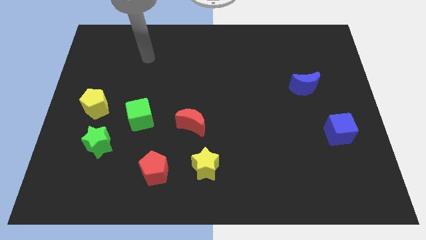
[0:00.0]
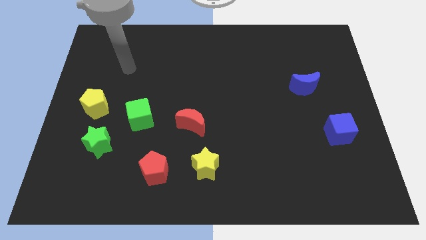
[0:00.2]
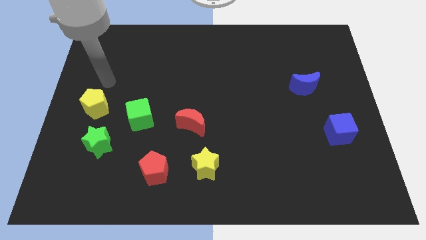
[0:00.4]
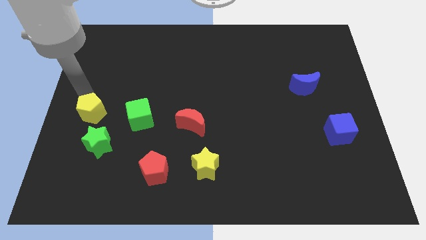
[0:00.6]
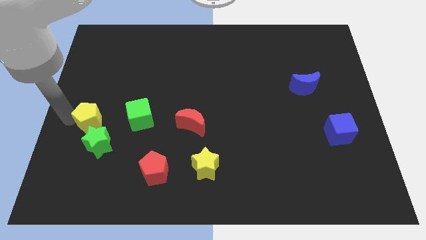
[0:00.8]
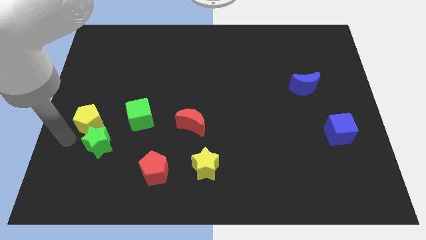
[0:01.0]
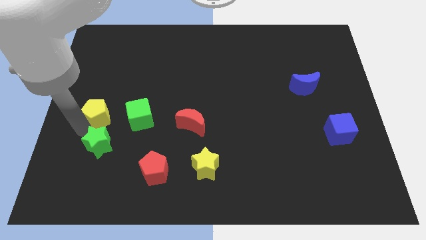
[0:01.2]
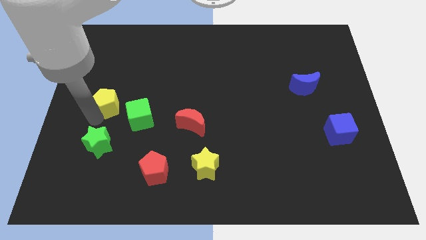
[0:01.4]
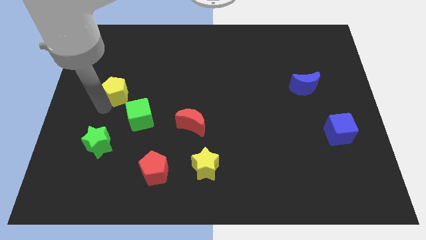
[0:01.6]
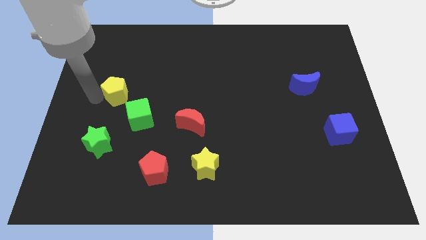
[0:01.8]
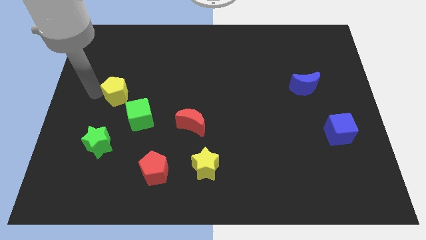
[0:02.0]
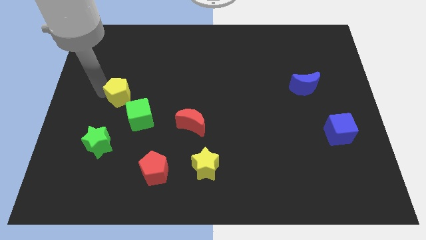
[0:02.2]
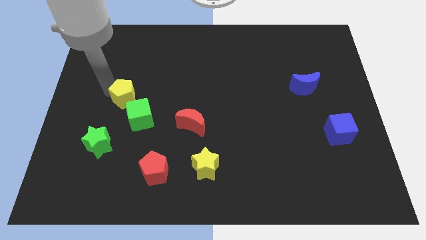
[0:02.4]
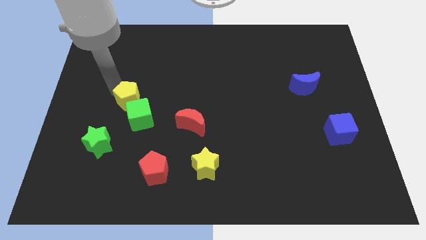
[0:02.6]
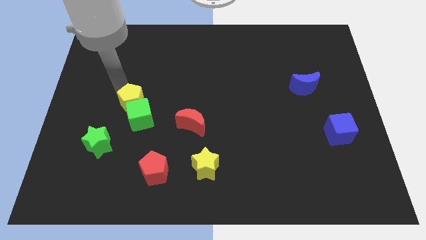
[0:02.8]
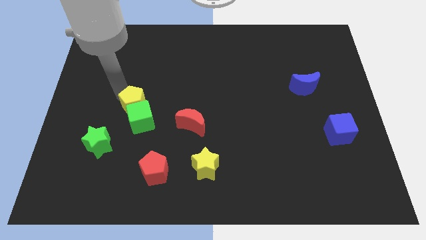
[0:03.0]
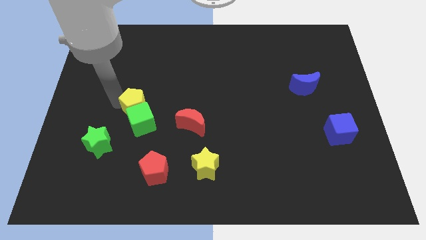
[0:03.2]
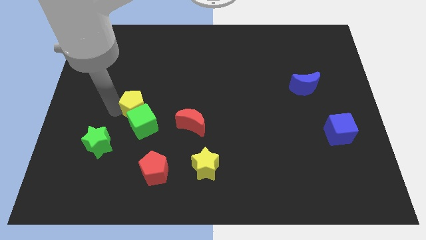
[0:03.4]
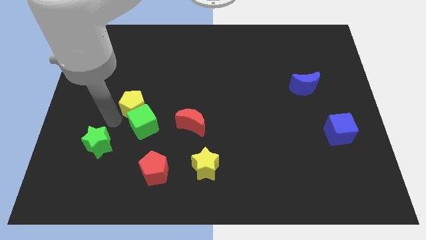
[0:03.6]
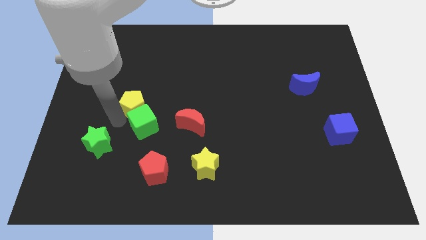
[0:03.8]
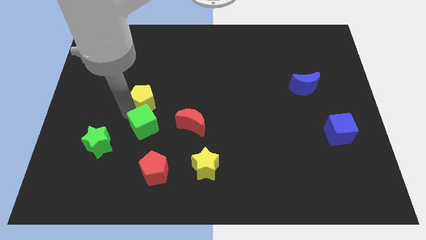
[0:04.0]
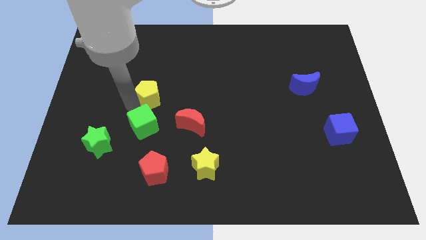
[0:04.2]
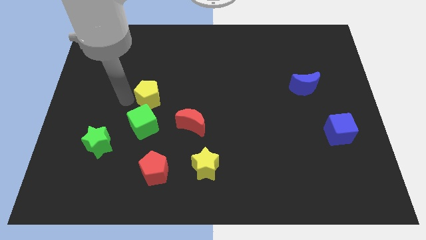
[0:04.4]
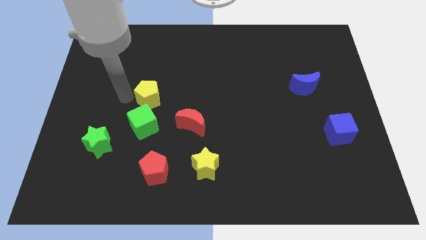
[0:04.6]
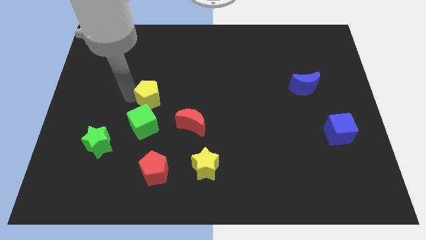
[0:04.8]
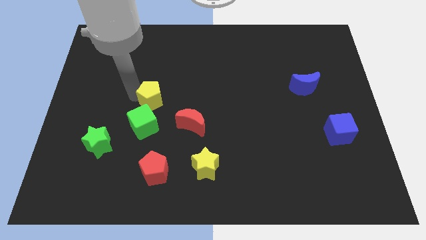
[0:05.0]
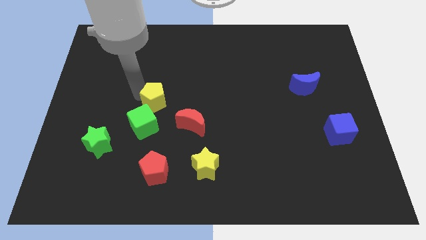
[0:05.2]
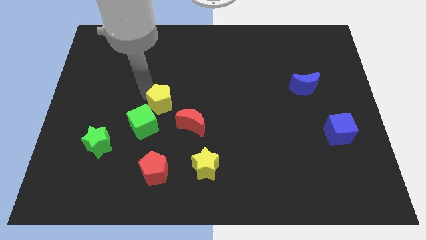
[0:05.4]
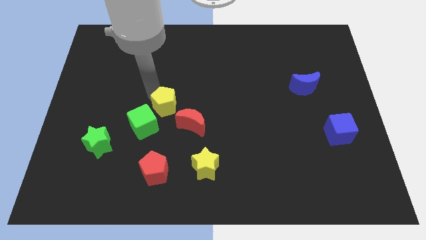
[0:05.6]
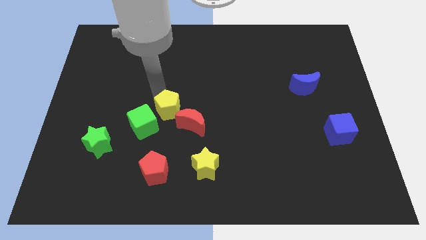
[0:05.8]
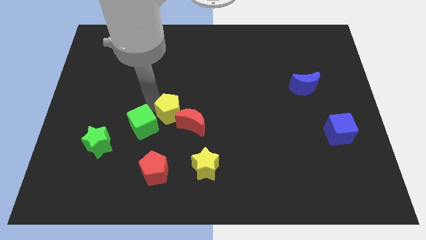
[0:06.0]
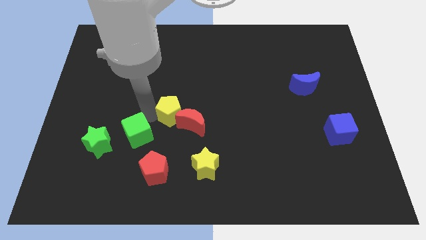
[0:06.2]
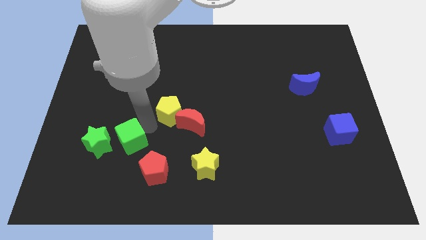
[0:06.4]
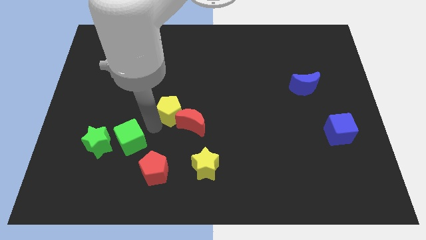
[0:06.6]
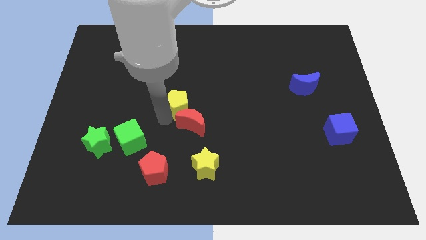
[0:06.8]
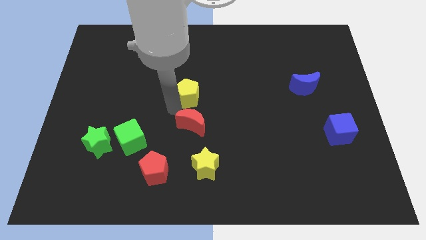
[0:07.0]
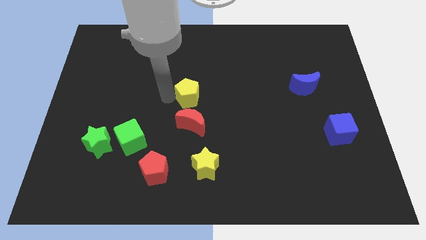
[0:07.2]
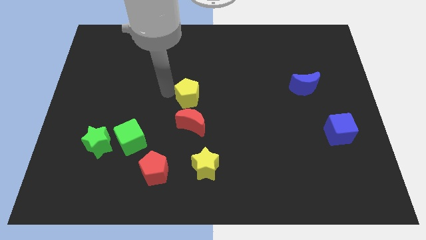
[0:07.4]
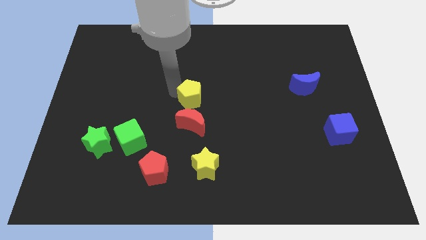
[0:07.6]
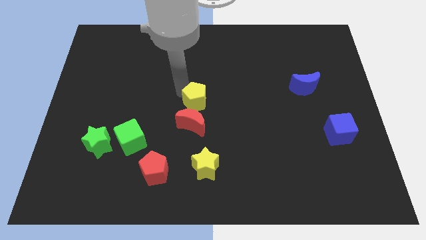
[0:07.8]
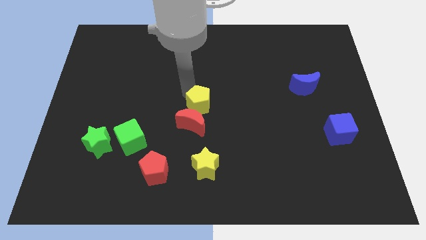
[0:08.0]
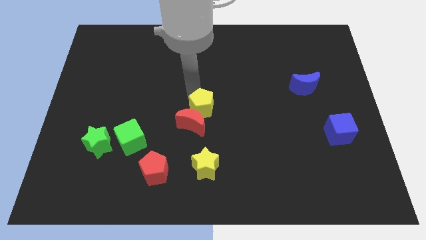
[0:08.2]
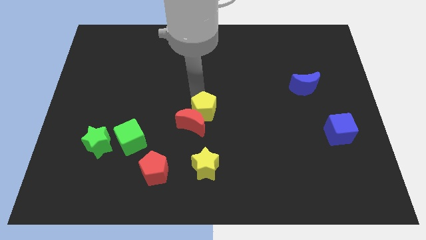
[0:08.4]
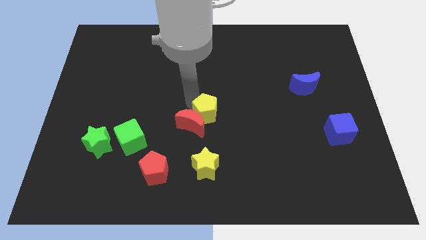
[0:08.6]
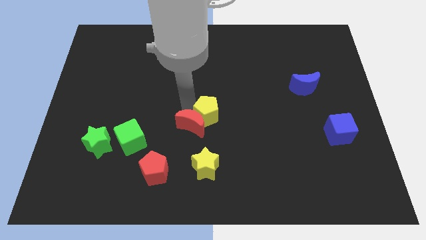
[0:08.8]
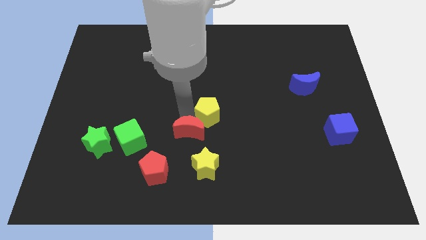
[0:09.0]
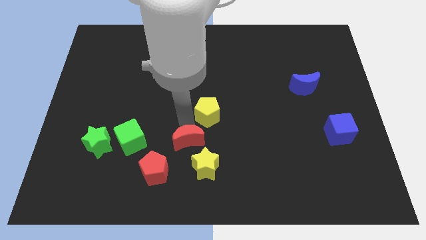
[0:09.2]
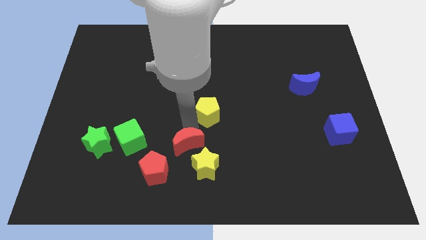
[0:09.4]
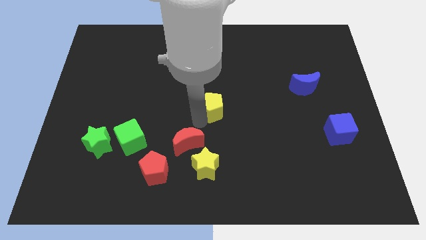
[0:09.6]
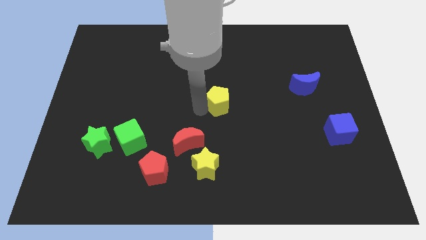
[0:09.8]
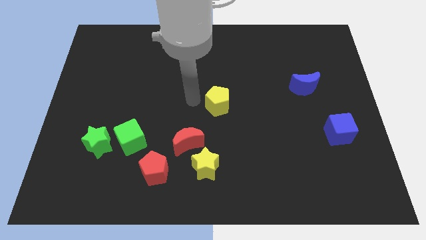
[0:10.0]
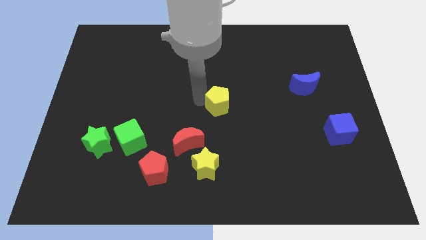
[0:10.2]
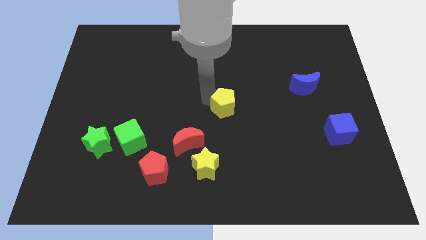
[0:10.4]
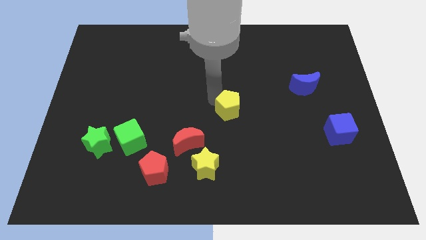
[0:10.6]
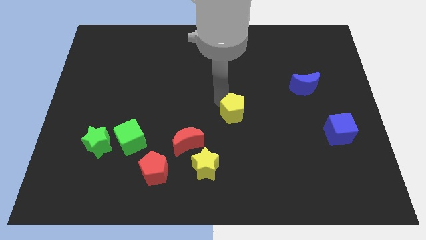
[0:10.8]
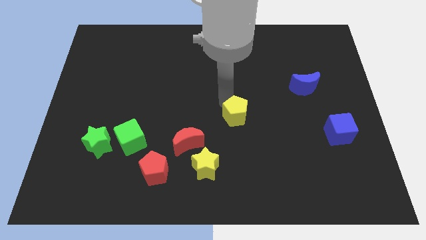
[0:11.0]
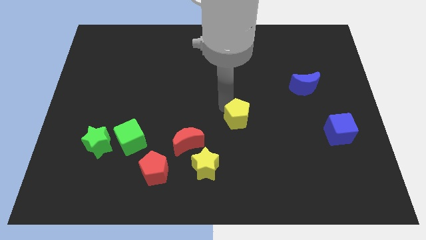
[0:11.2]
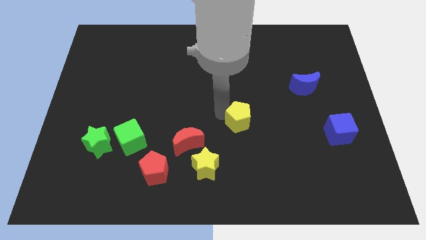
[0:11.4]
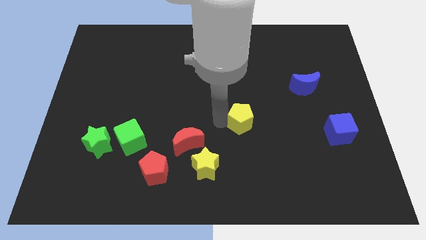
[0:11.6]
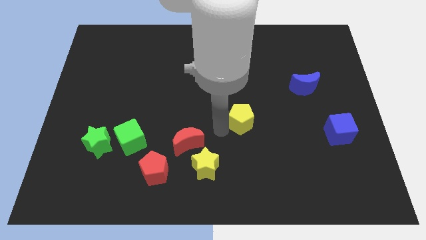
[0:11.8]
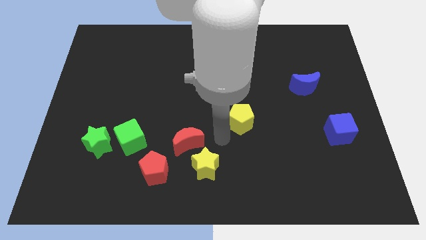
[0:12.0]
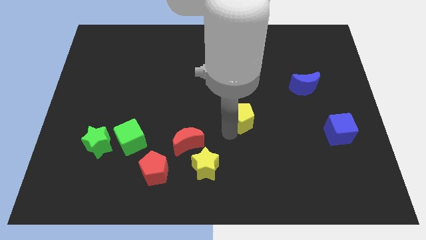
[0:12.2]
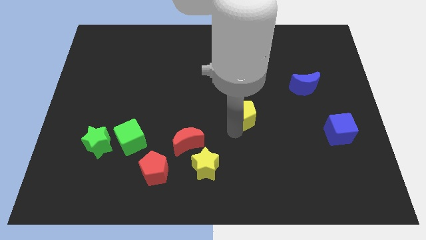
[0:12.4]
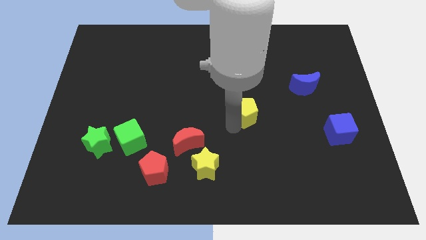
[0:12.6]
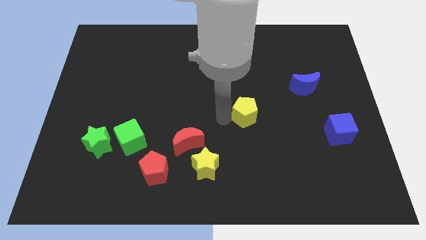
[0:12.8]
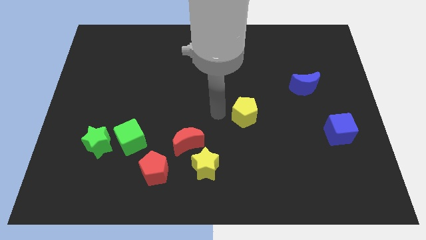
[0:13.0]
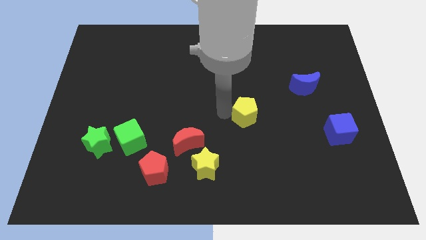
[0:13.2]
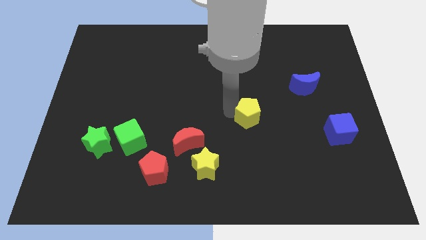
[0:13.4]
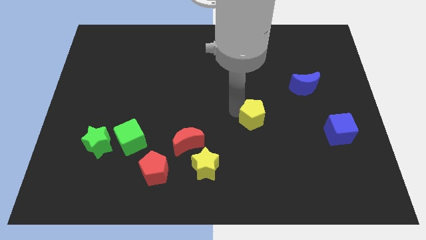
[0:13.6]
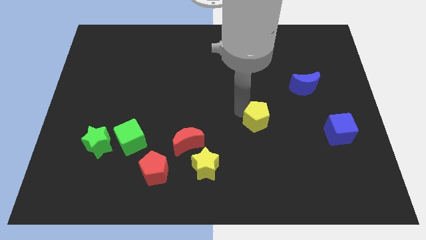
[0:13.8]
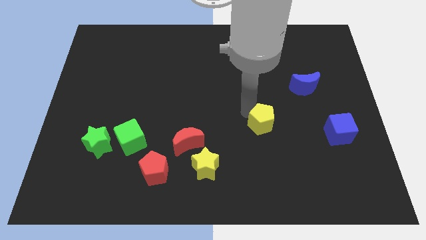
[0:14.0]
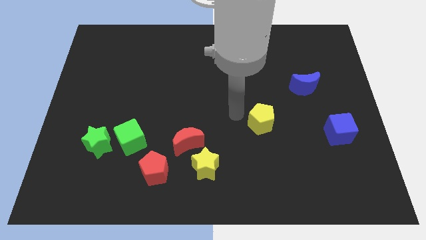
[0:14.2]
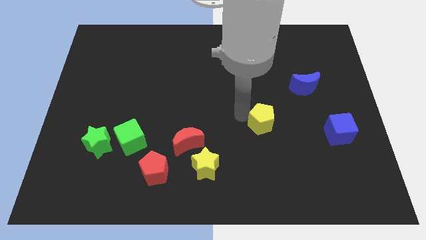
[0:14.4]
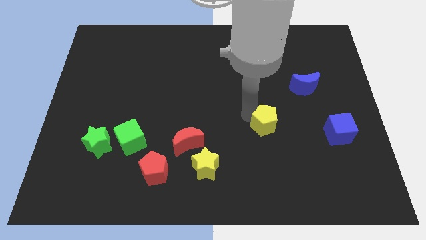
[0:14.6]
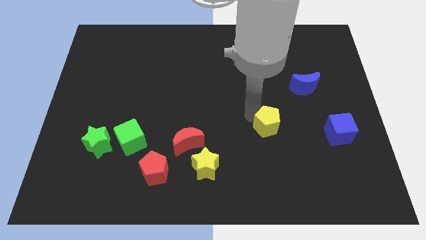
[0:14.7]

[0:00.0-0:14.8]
push the yellow pentagon just left of the blue cube

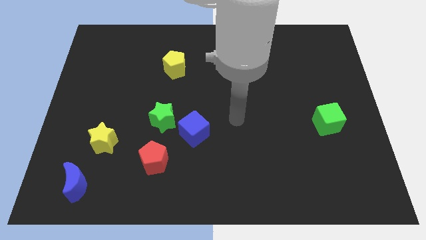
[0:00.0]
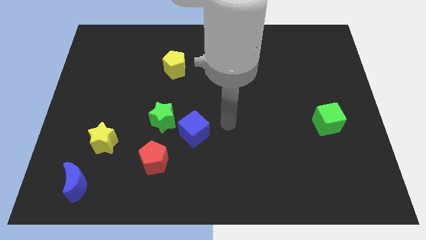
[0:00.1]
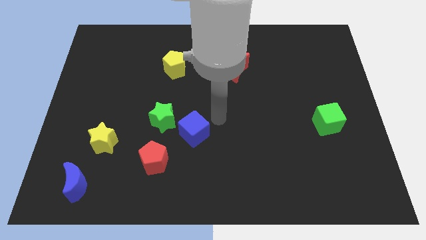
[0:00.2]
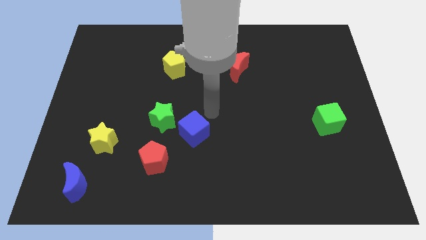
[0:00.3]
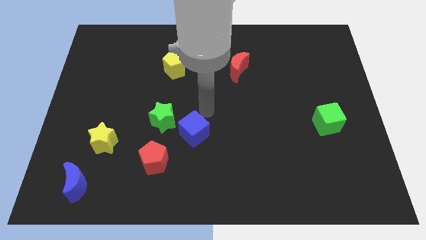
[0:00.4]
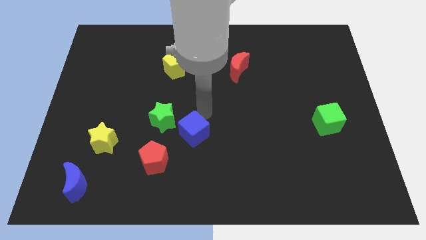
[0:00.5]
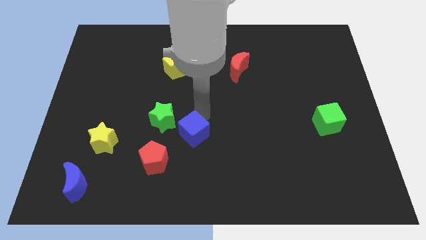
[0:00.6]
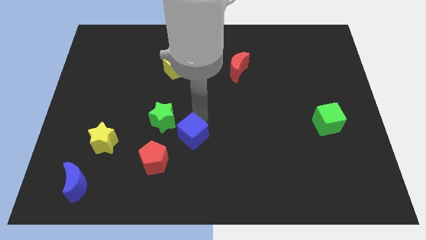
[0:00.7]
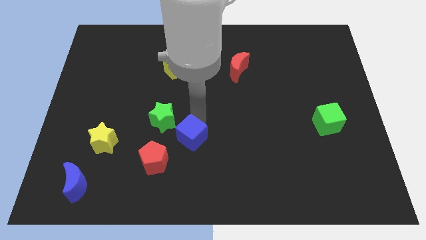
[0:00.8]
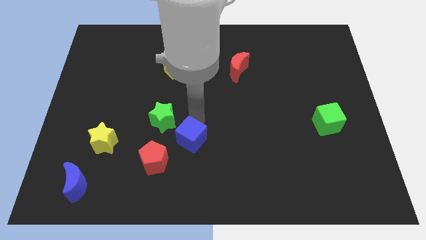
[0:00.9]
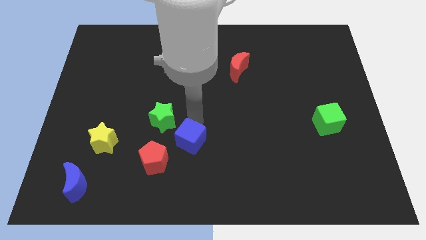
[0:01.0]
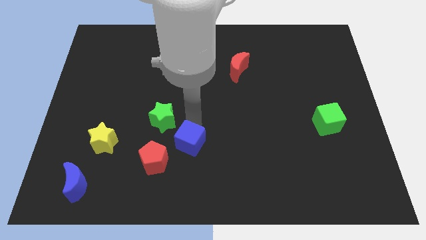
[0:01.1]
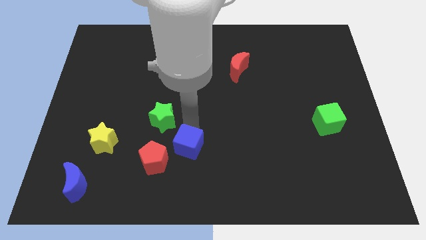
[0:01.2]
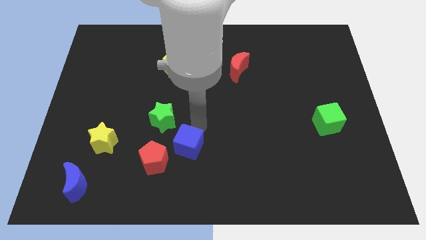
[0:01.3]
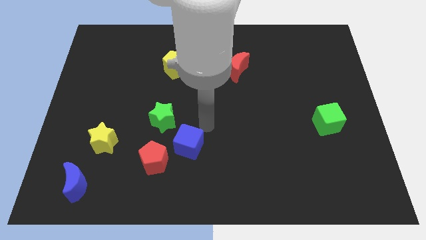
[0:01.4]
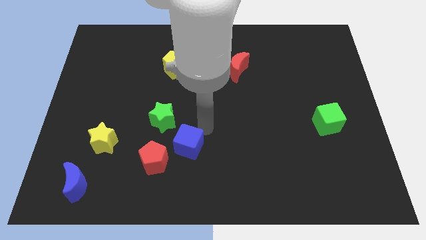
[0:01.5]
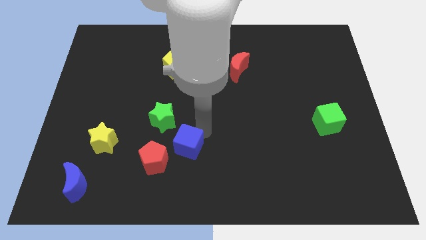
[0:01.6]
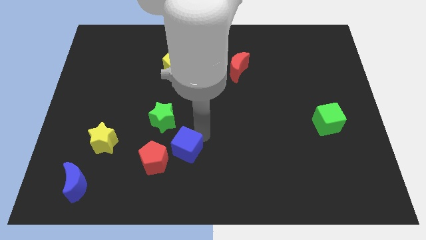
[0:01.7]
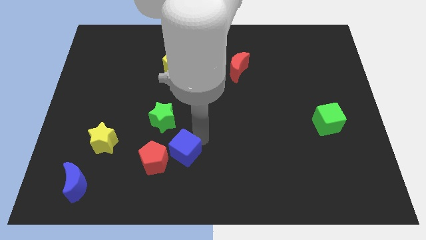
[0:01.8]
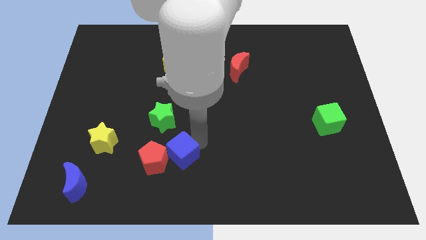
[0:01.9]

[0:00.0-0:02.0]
slide the blue cube to the bottom side of the green star
